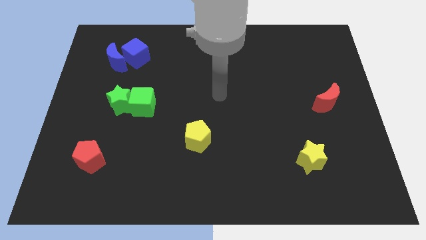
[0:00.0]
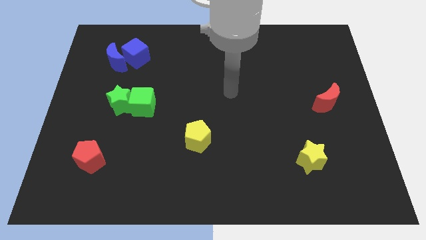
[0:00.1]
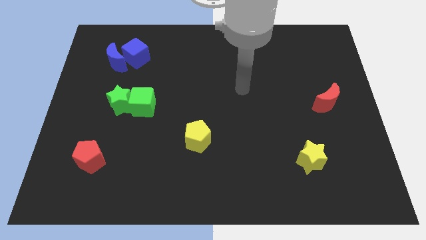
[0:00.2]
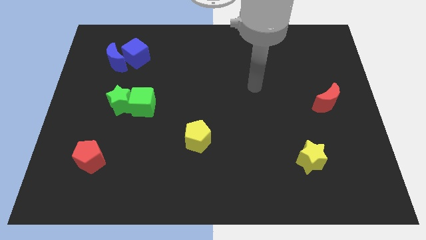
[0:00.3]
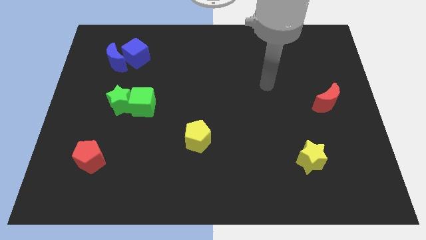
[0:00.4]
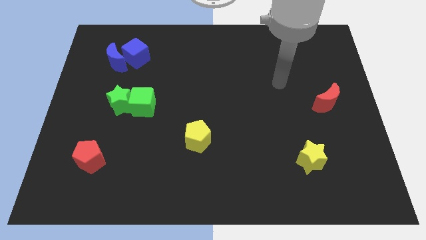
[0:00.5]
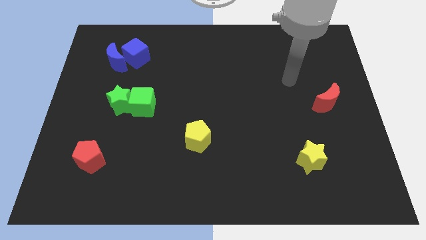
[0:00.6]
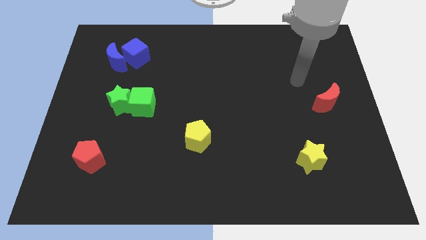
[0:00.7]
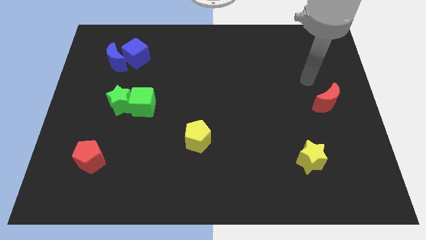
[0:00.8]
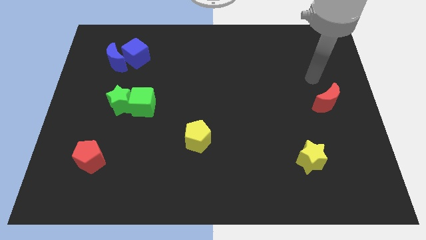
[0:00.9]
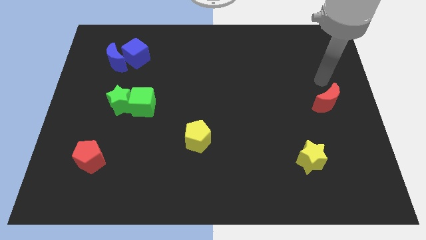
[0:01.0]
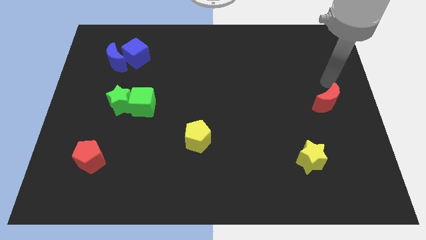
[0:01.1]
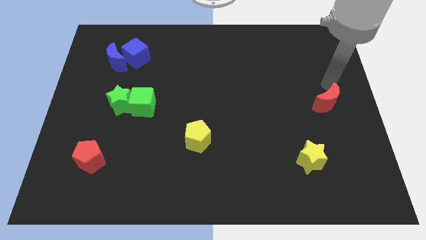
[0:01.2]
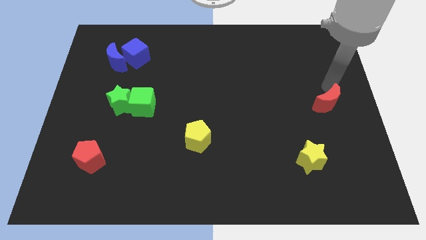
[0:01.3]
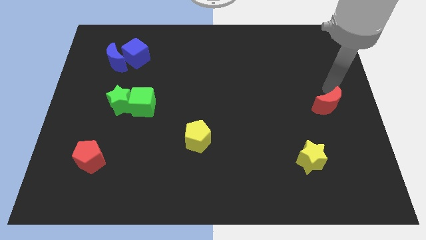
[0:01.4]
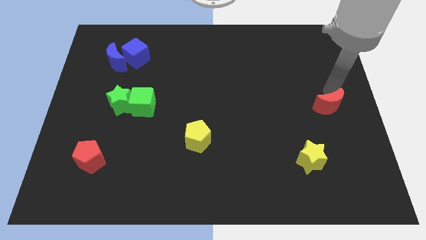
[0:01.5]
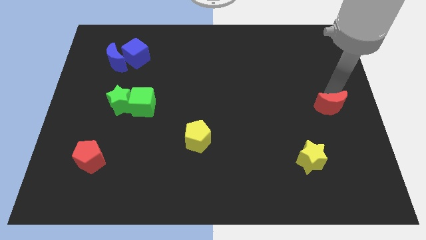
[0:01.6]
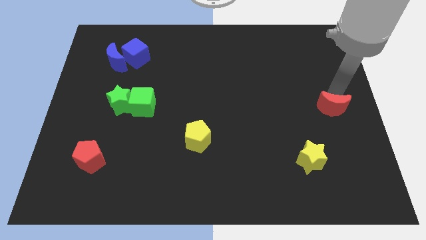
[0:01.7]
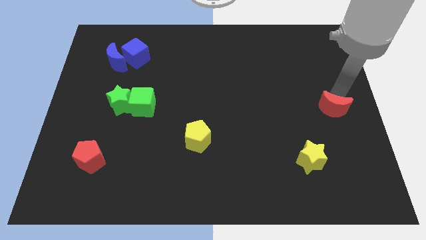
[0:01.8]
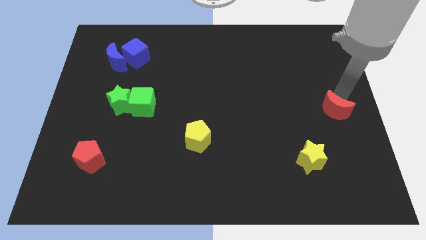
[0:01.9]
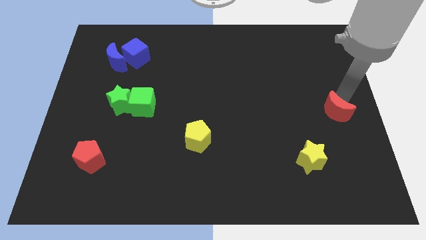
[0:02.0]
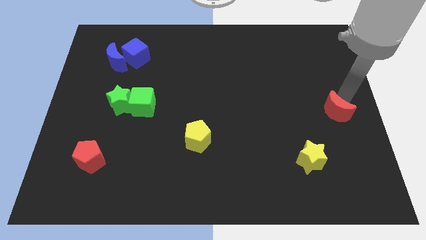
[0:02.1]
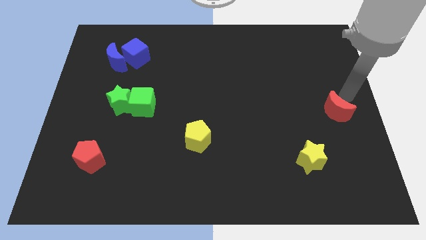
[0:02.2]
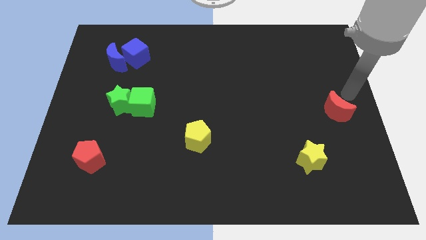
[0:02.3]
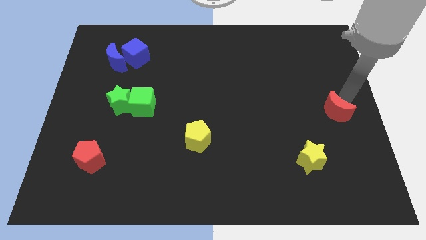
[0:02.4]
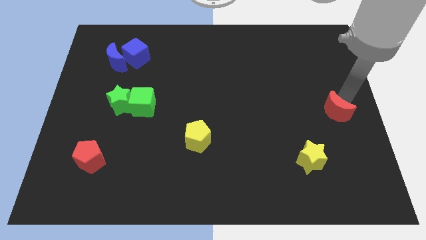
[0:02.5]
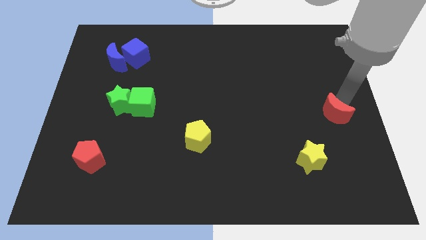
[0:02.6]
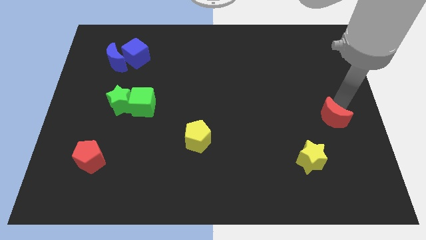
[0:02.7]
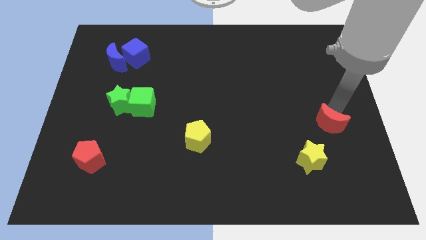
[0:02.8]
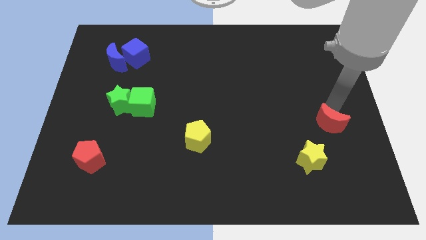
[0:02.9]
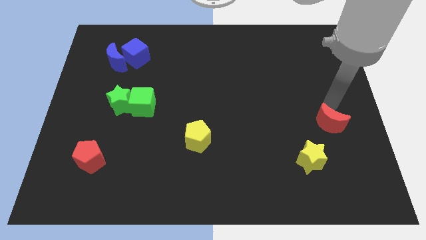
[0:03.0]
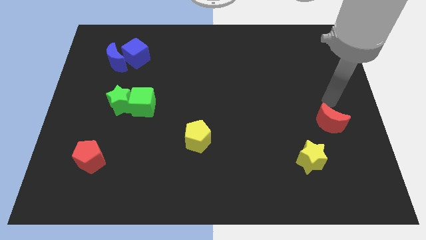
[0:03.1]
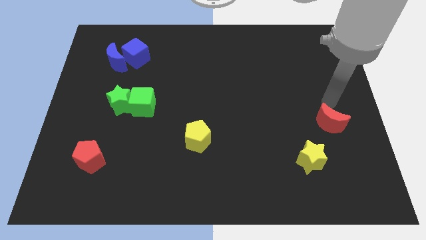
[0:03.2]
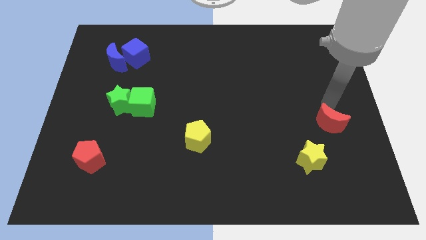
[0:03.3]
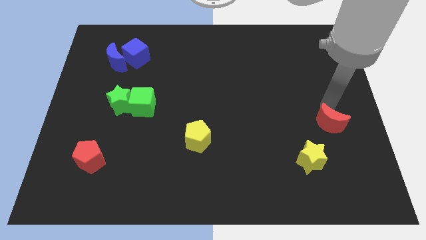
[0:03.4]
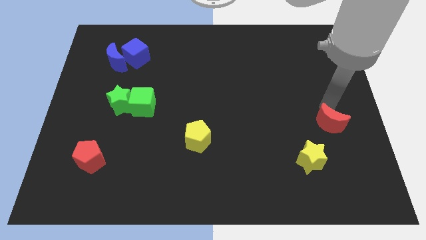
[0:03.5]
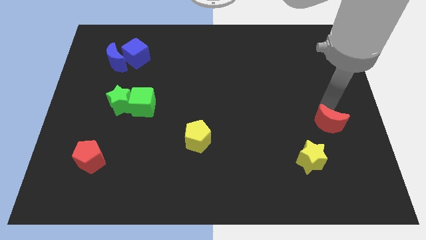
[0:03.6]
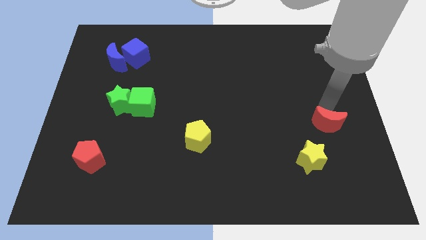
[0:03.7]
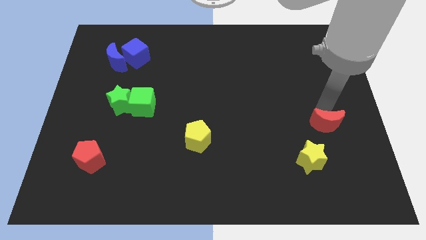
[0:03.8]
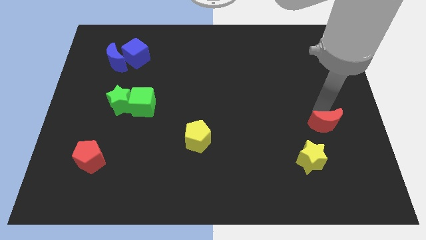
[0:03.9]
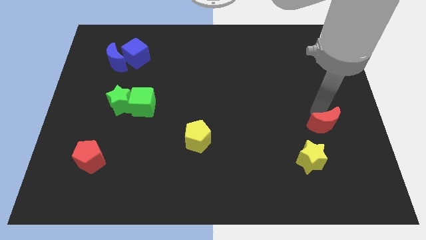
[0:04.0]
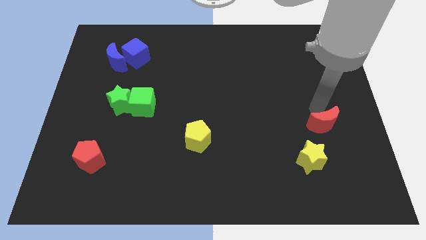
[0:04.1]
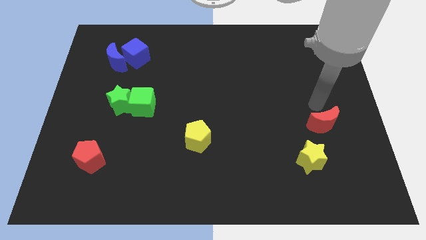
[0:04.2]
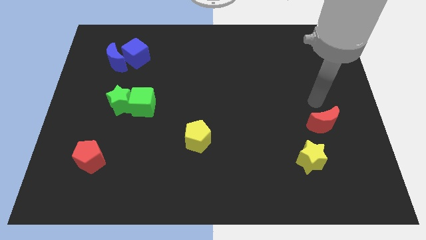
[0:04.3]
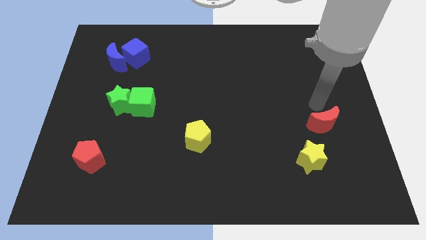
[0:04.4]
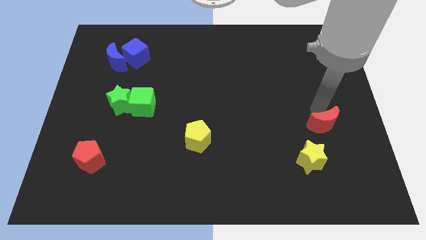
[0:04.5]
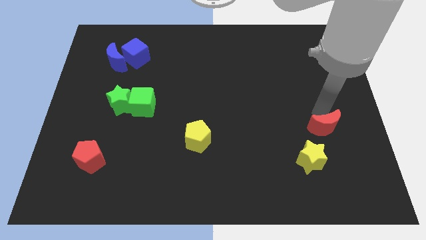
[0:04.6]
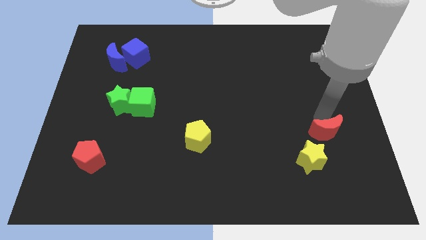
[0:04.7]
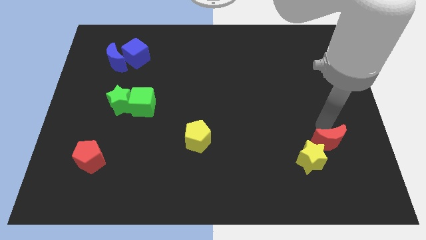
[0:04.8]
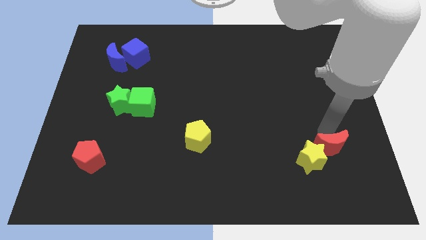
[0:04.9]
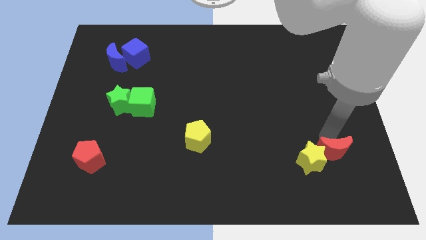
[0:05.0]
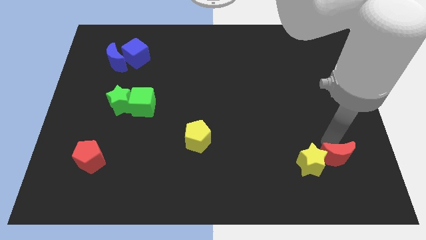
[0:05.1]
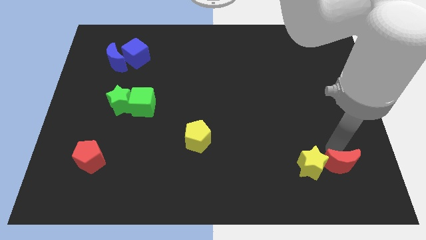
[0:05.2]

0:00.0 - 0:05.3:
move the red moon to the bottom right side of the yellow star

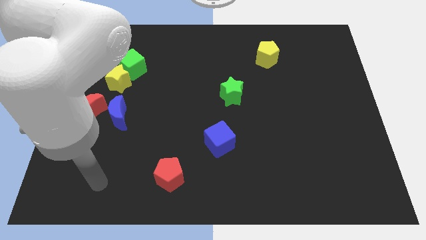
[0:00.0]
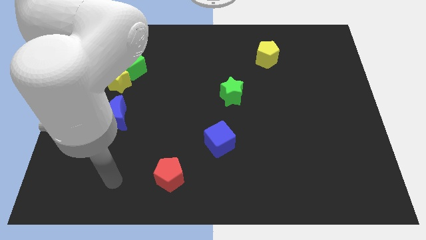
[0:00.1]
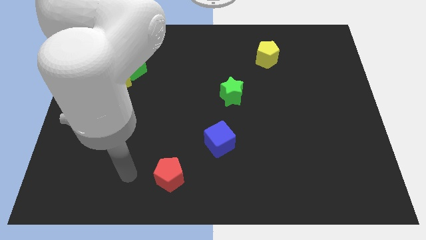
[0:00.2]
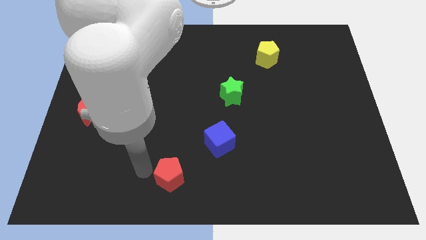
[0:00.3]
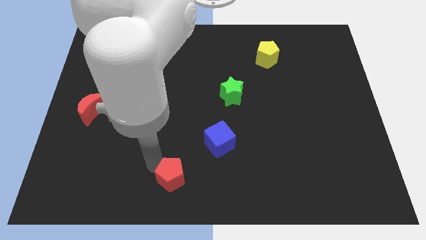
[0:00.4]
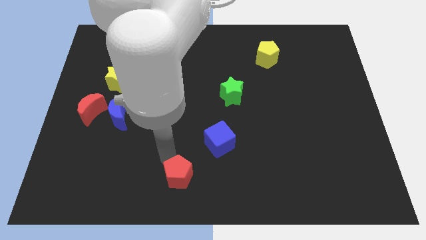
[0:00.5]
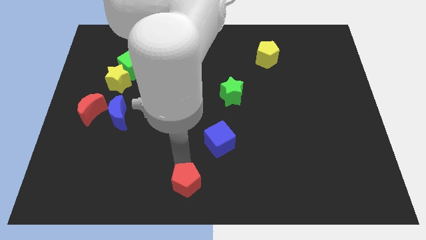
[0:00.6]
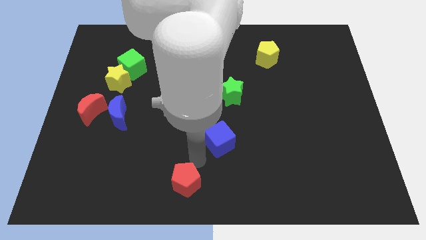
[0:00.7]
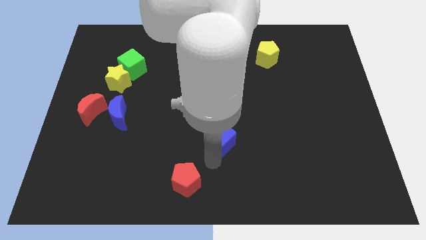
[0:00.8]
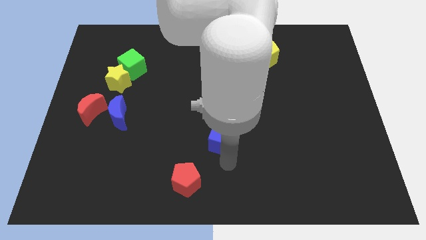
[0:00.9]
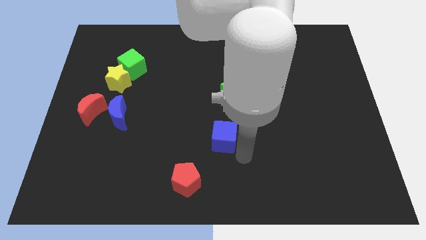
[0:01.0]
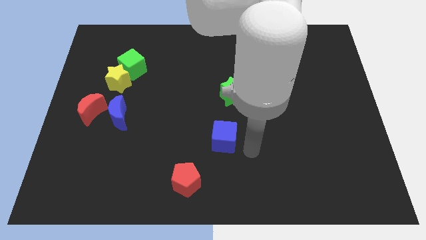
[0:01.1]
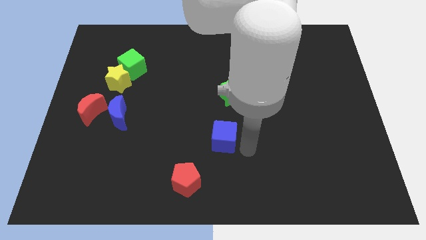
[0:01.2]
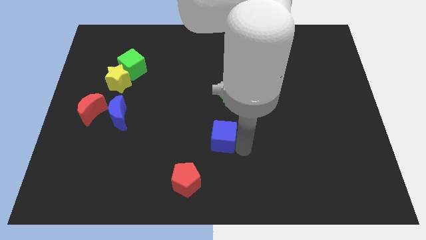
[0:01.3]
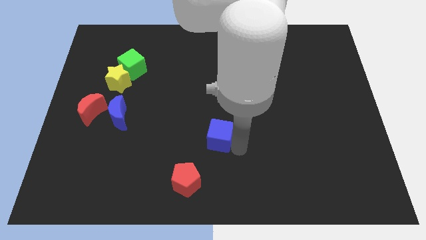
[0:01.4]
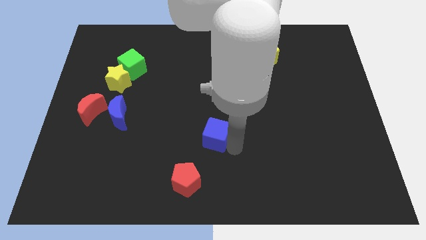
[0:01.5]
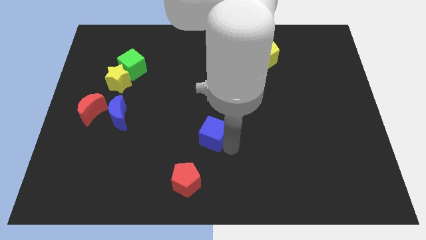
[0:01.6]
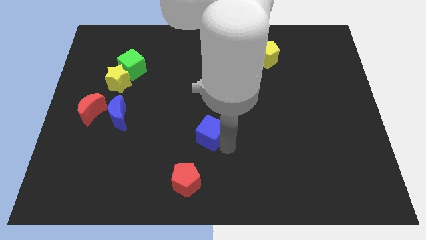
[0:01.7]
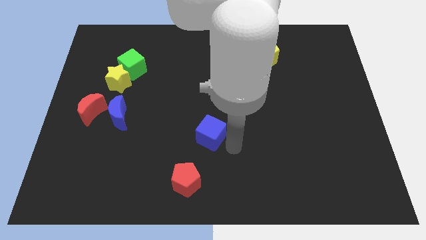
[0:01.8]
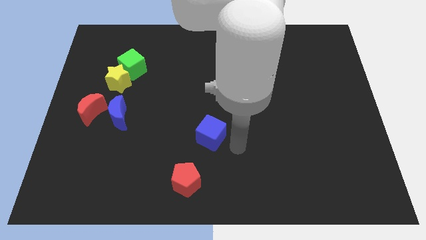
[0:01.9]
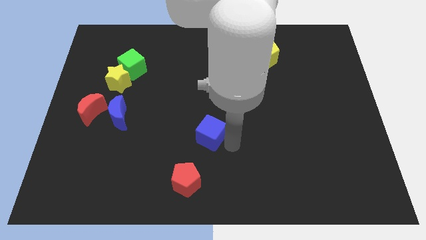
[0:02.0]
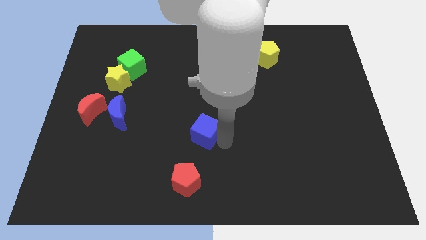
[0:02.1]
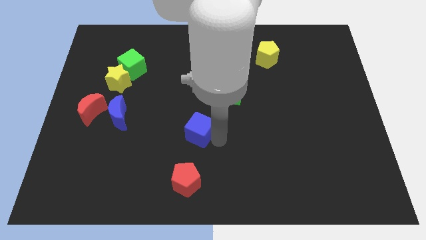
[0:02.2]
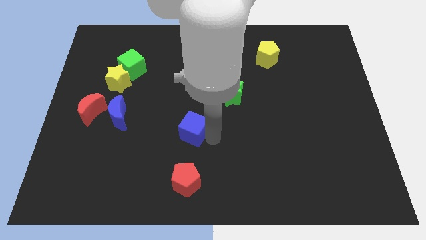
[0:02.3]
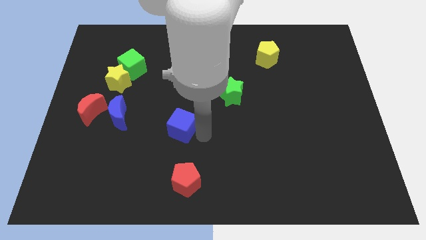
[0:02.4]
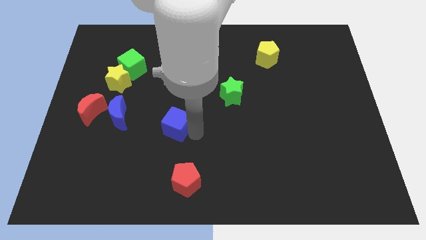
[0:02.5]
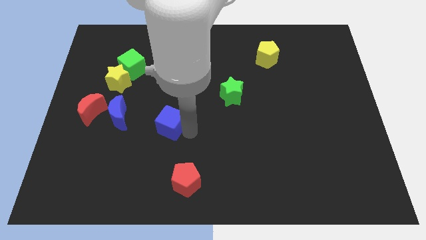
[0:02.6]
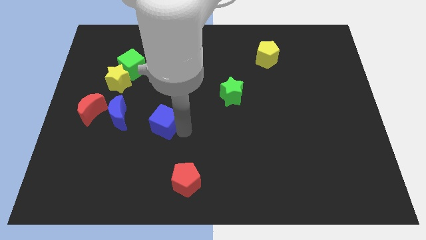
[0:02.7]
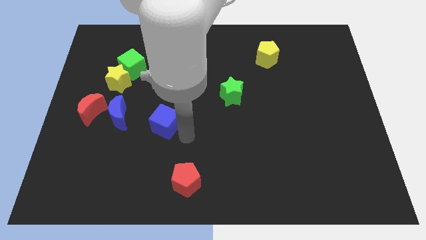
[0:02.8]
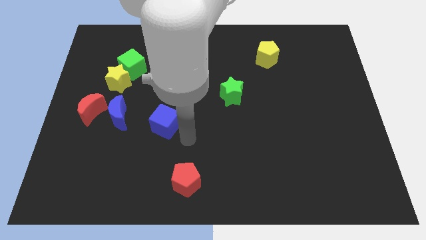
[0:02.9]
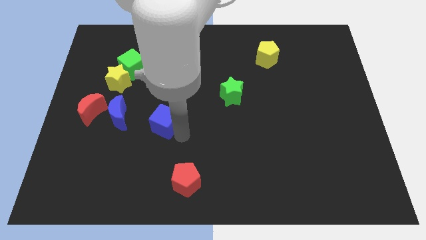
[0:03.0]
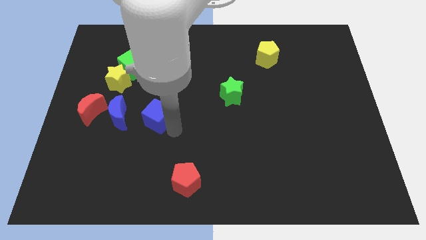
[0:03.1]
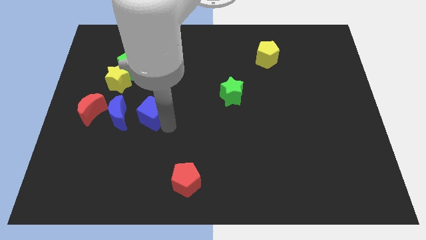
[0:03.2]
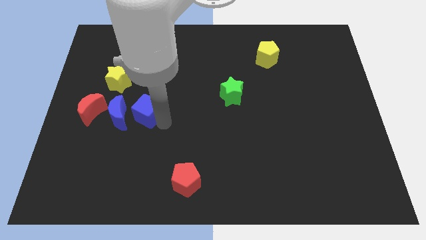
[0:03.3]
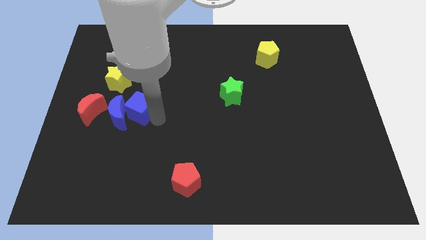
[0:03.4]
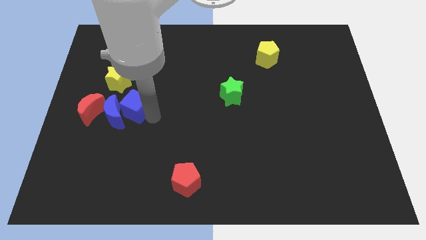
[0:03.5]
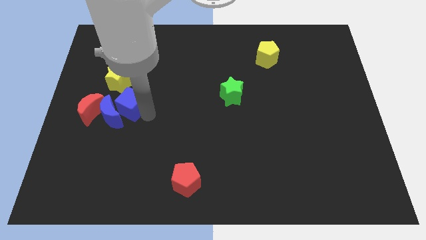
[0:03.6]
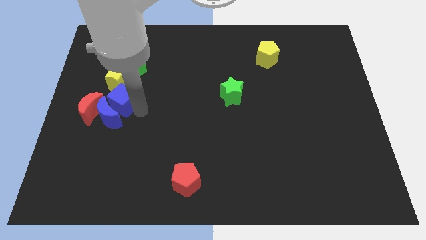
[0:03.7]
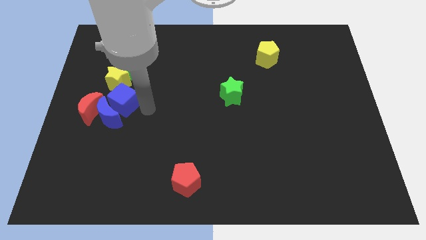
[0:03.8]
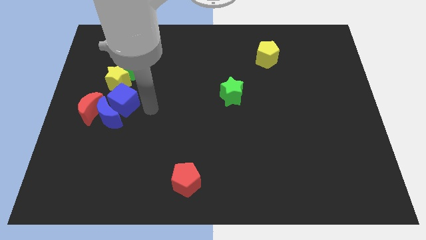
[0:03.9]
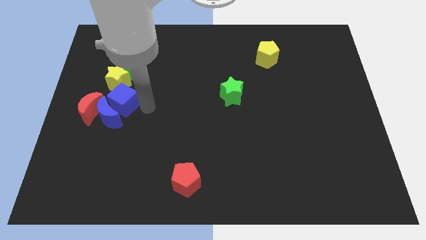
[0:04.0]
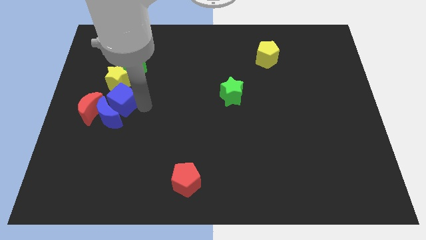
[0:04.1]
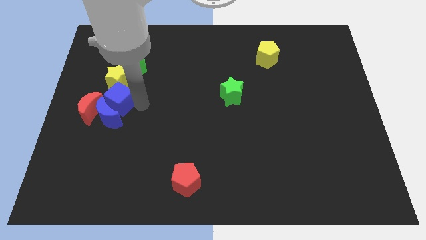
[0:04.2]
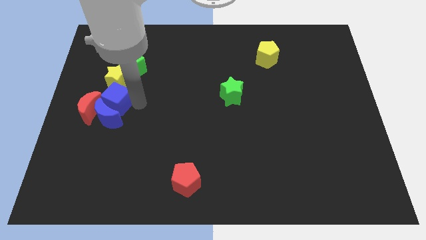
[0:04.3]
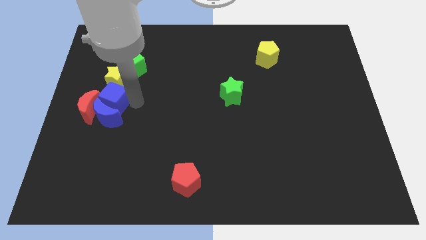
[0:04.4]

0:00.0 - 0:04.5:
move the blue cube to the bottom left of the yellow star
